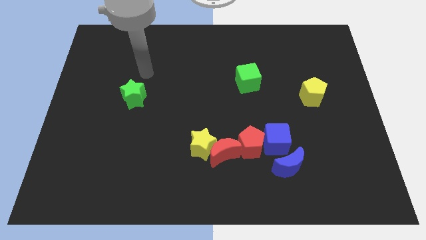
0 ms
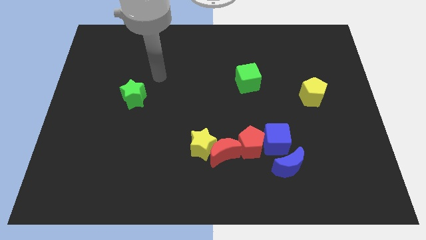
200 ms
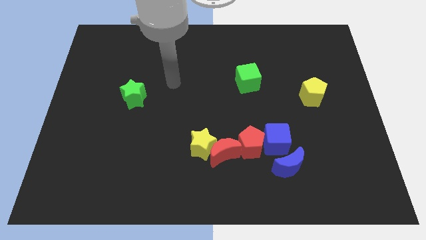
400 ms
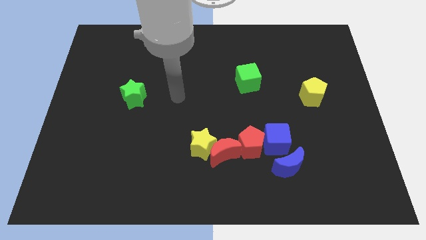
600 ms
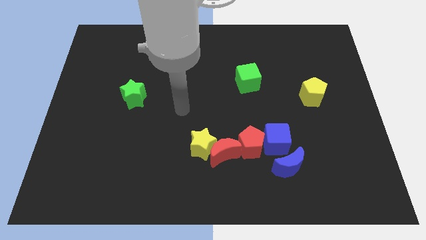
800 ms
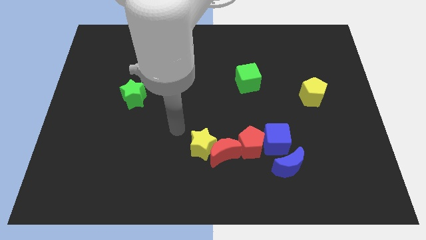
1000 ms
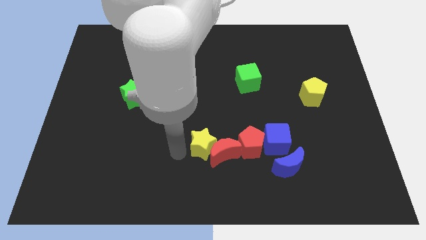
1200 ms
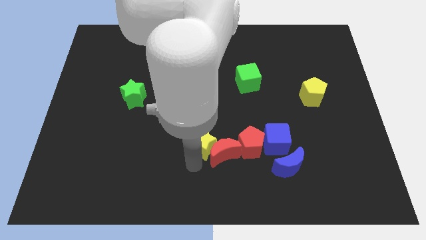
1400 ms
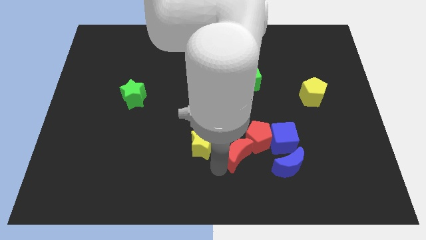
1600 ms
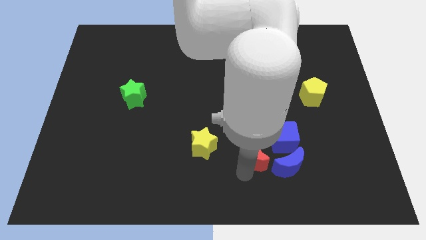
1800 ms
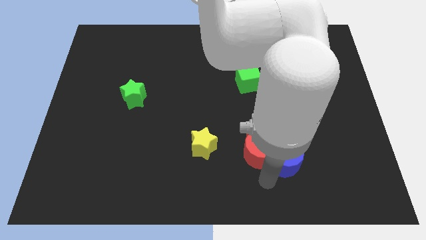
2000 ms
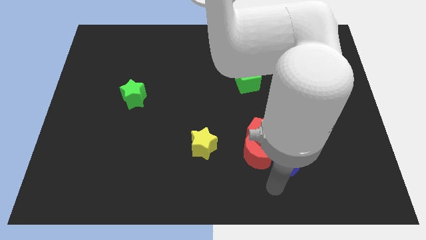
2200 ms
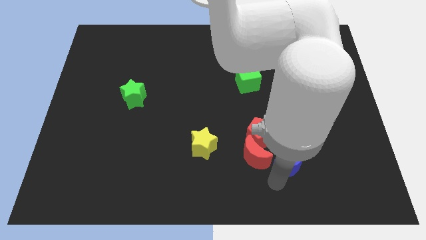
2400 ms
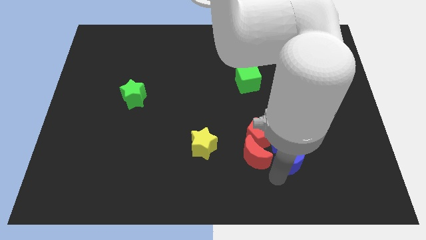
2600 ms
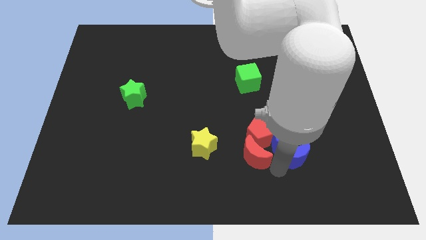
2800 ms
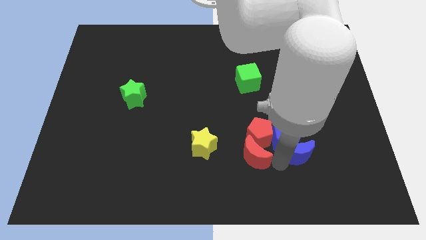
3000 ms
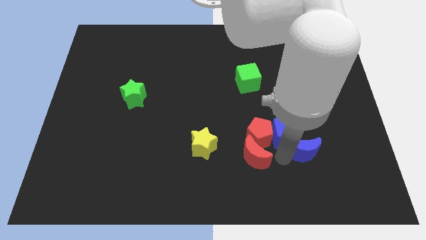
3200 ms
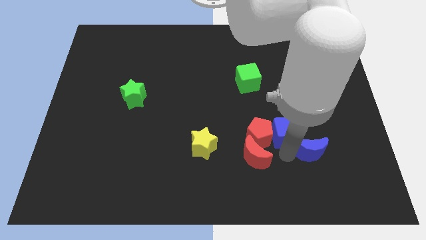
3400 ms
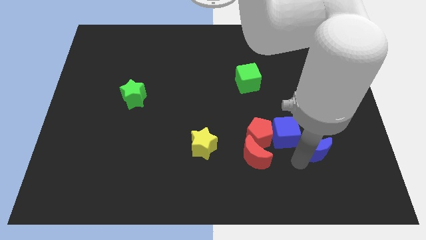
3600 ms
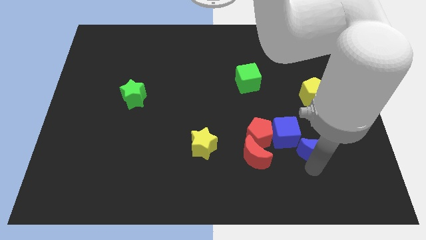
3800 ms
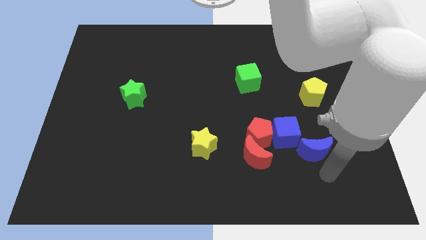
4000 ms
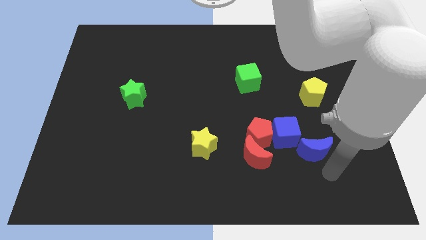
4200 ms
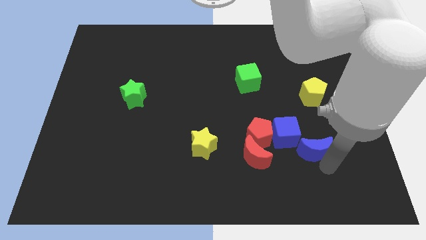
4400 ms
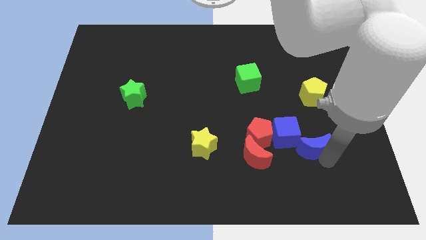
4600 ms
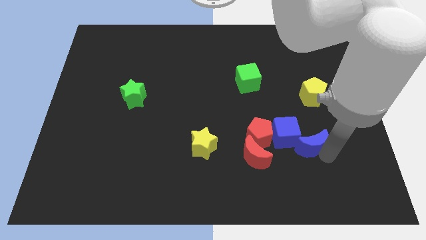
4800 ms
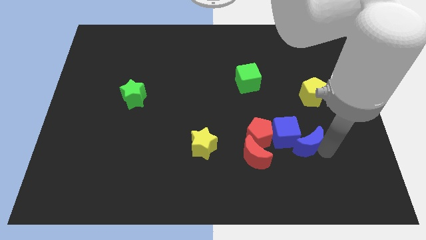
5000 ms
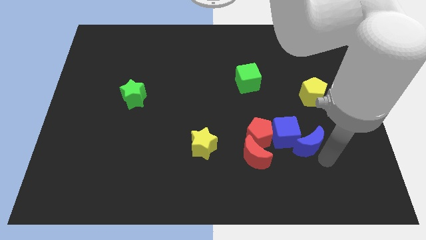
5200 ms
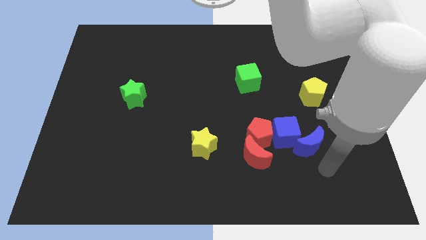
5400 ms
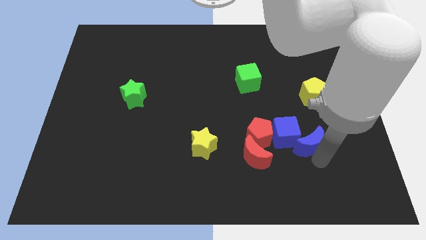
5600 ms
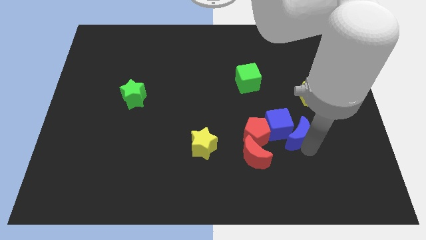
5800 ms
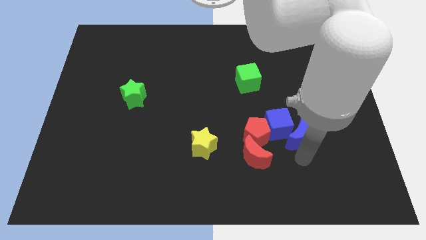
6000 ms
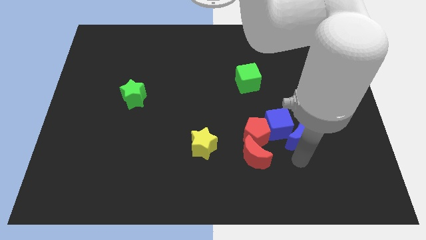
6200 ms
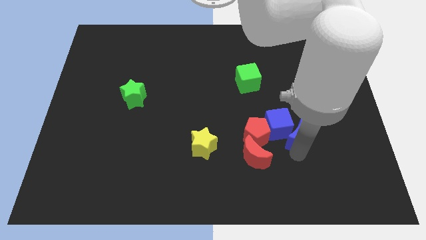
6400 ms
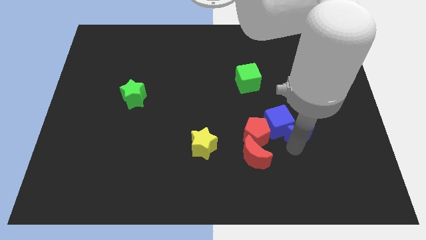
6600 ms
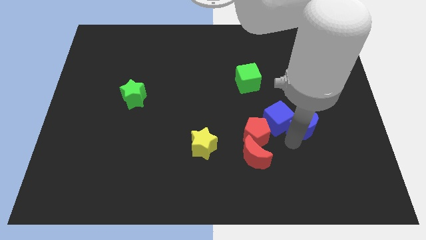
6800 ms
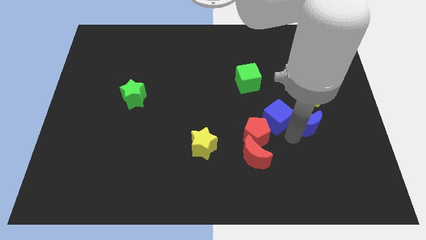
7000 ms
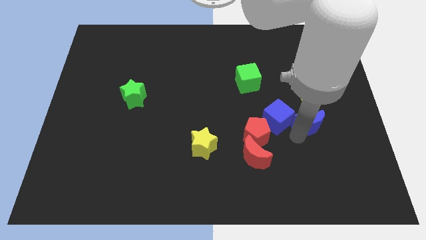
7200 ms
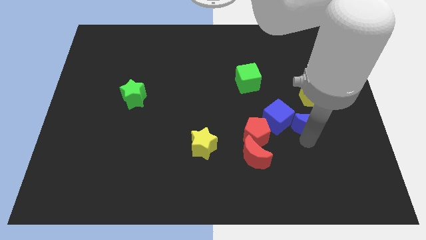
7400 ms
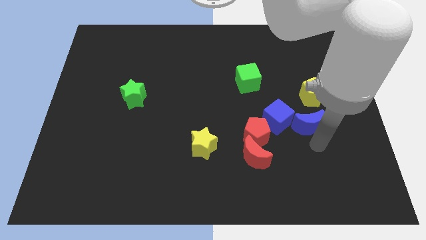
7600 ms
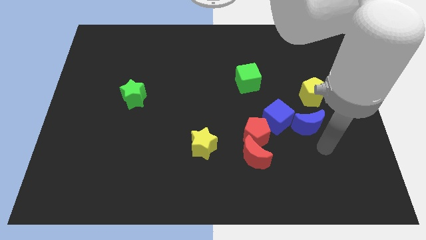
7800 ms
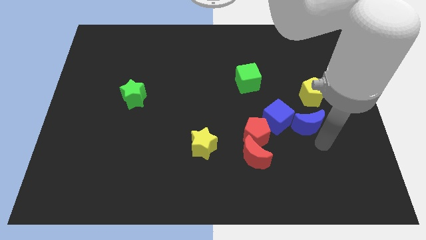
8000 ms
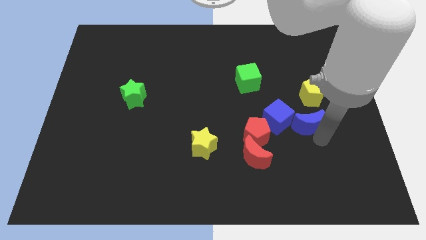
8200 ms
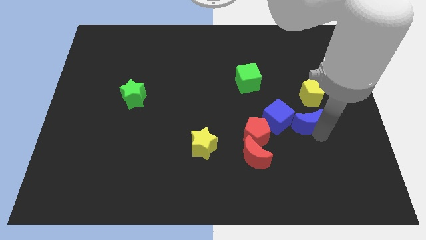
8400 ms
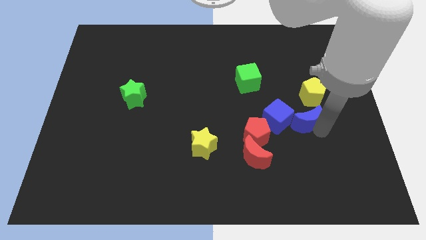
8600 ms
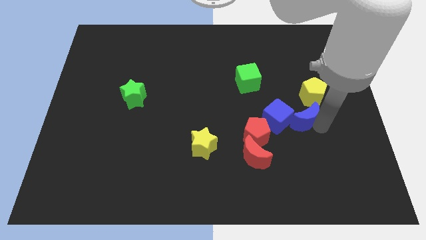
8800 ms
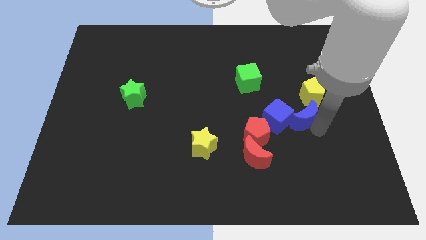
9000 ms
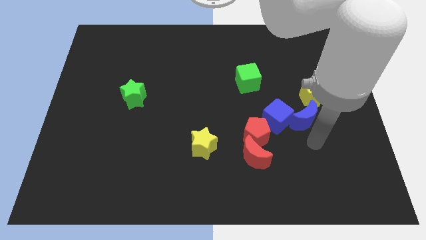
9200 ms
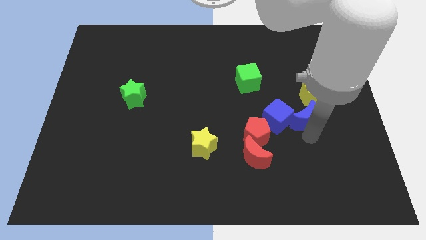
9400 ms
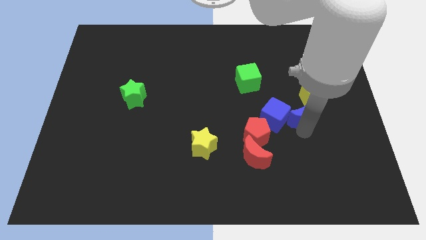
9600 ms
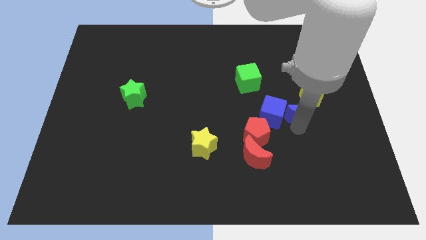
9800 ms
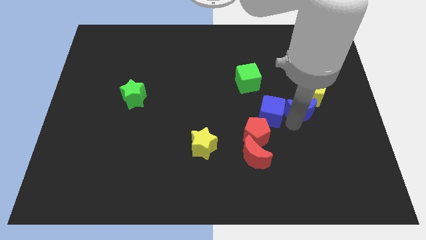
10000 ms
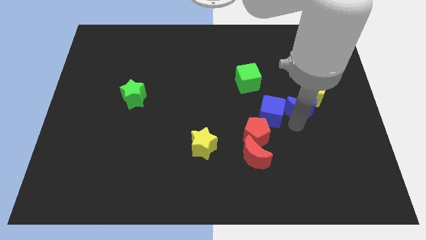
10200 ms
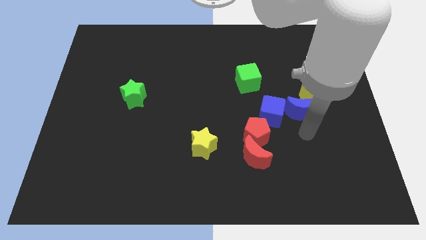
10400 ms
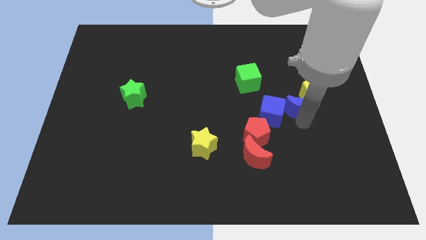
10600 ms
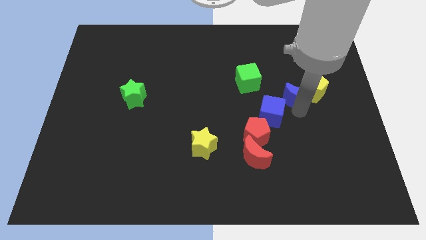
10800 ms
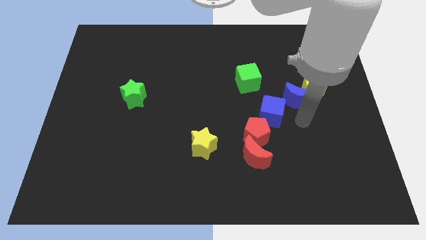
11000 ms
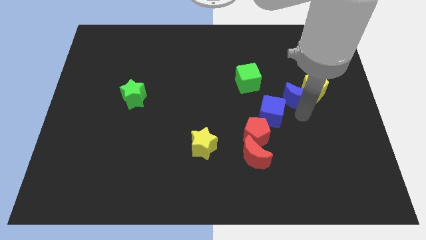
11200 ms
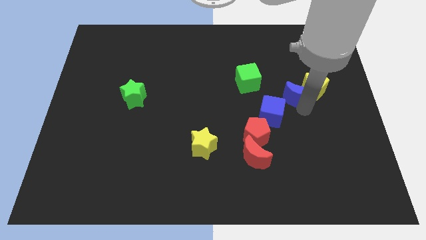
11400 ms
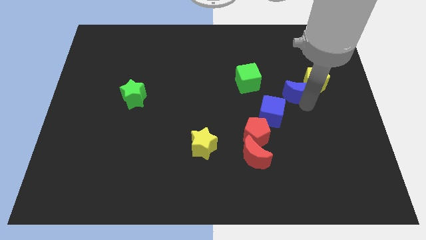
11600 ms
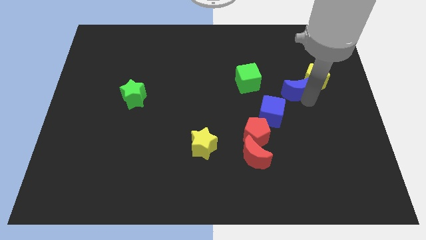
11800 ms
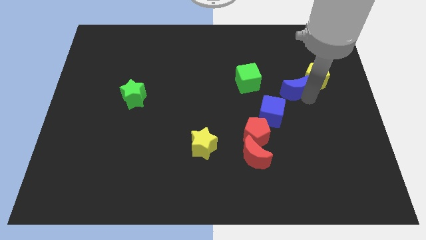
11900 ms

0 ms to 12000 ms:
slide the blue moon up

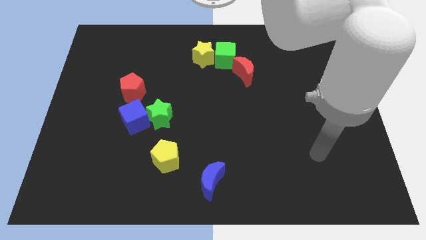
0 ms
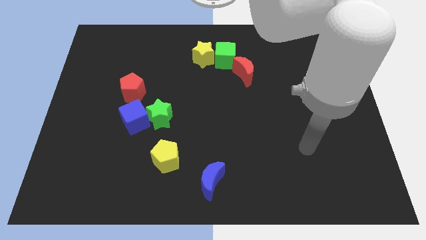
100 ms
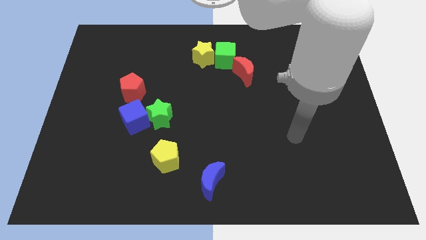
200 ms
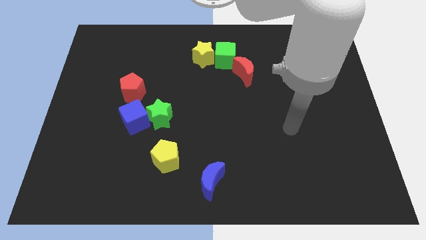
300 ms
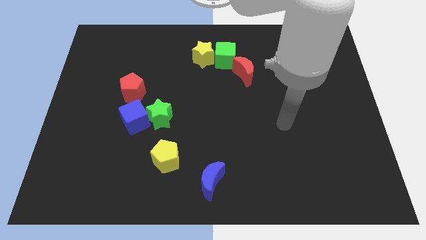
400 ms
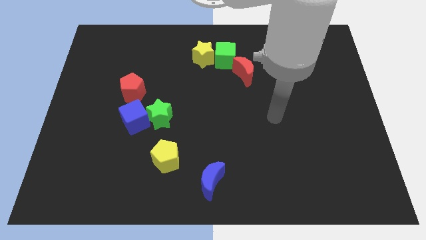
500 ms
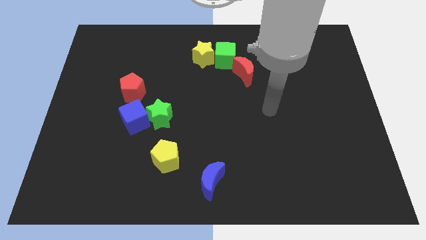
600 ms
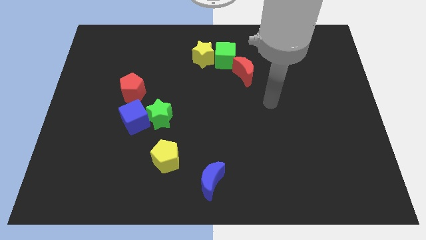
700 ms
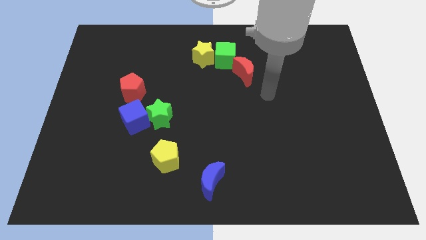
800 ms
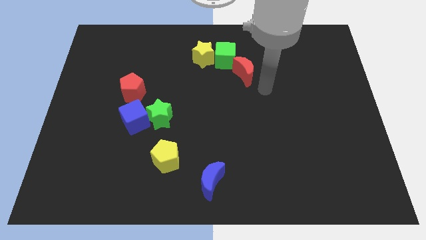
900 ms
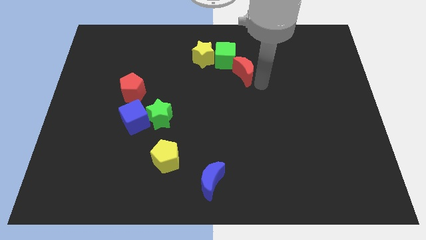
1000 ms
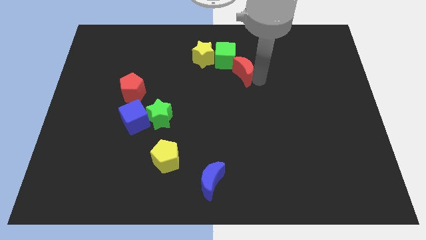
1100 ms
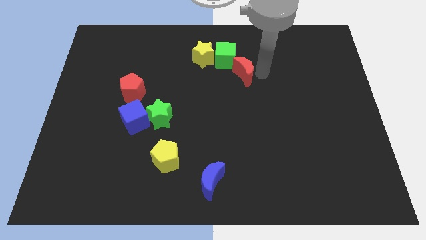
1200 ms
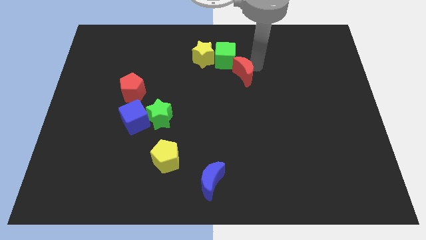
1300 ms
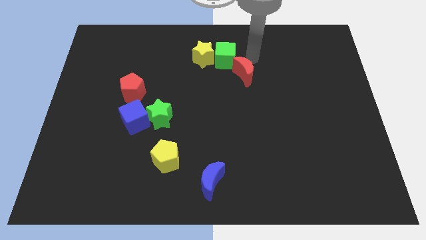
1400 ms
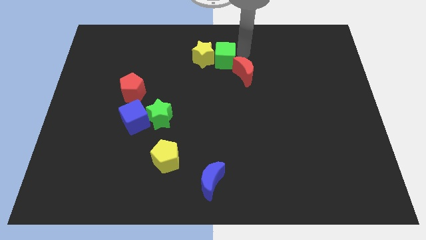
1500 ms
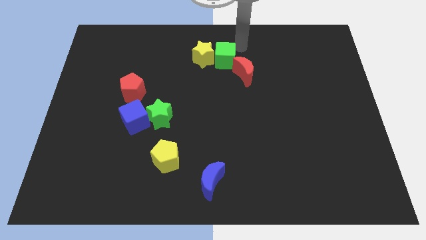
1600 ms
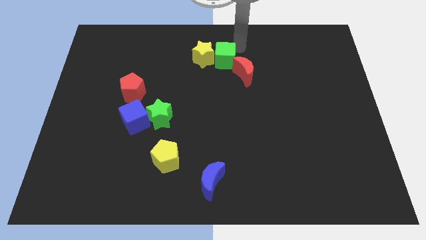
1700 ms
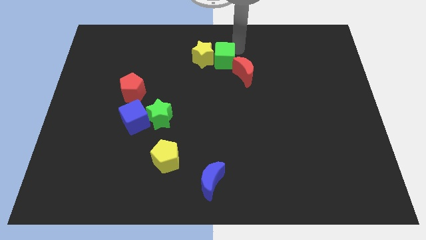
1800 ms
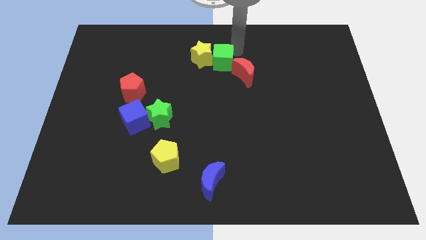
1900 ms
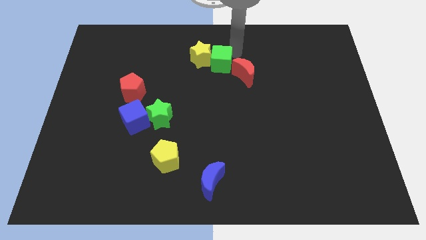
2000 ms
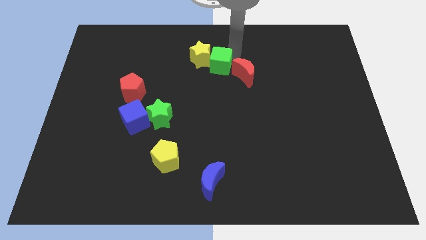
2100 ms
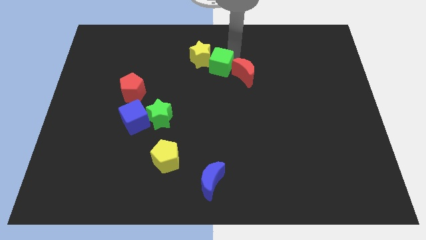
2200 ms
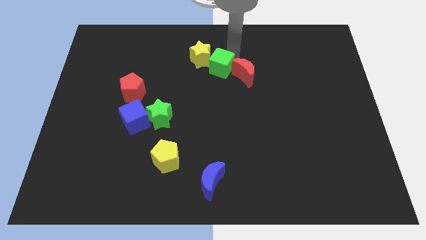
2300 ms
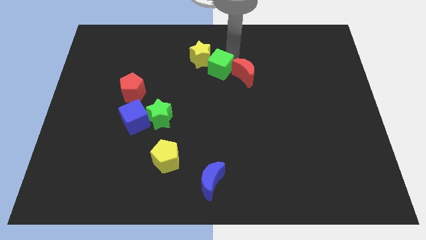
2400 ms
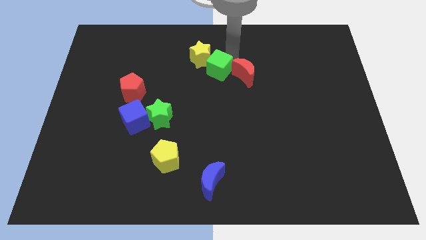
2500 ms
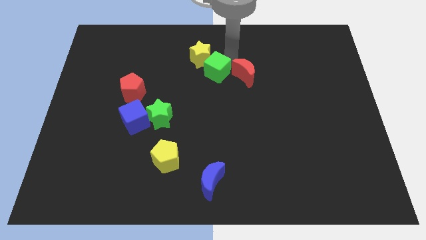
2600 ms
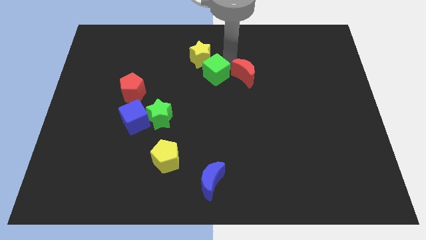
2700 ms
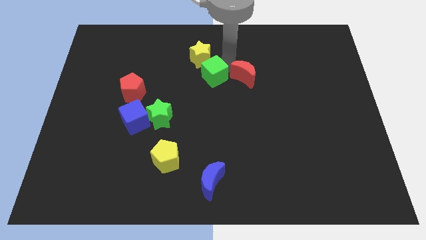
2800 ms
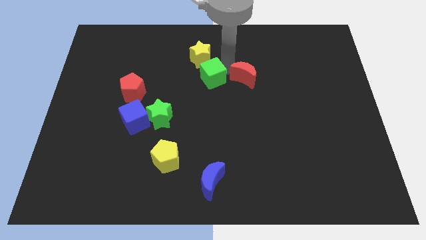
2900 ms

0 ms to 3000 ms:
move the green cube a bit downwards and then left
